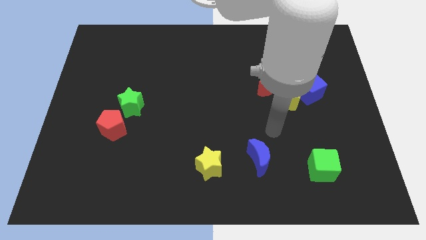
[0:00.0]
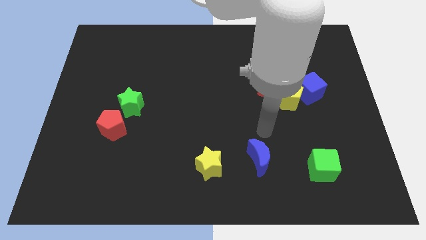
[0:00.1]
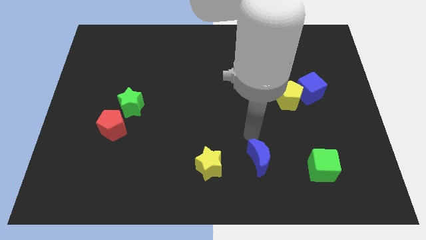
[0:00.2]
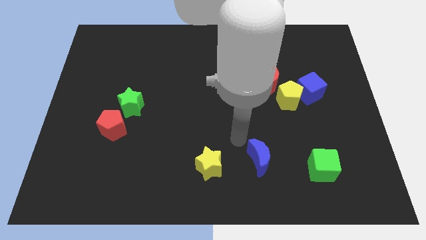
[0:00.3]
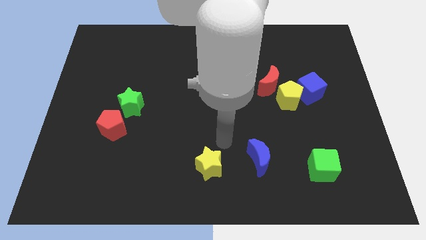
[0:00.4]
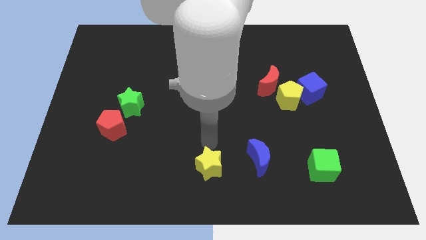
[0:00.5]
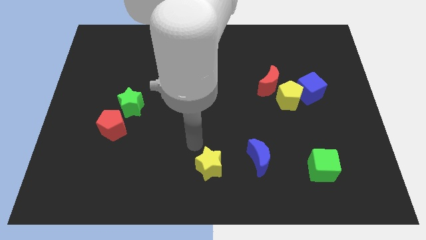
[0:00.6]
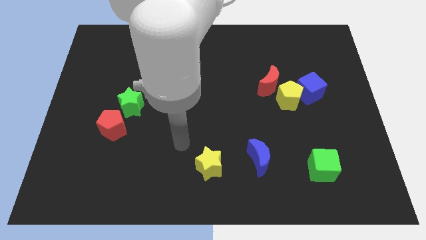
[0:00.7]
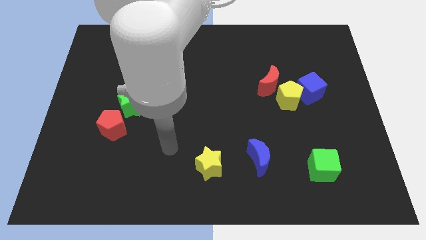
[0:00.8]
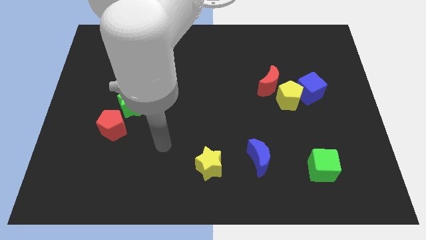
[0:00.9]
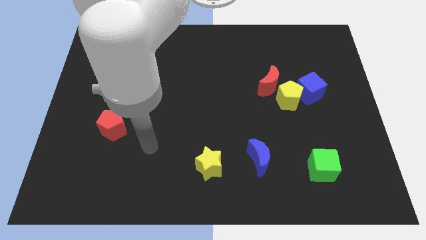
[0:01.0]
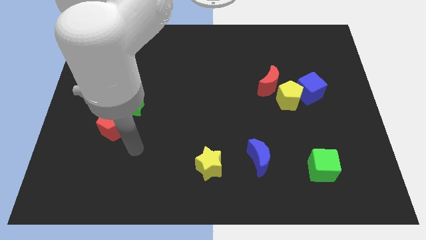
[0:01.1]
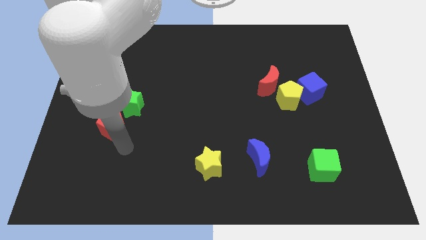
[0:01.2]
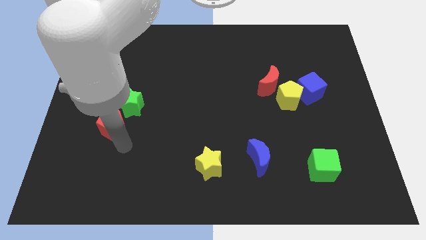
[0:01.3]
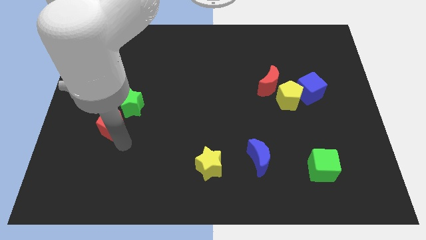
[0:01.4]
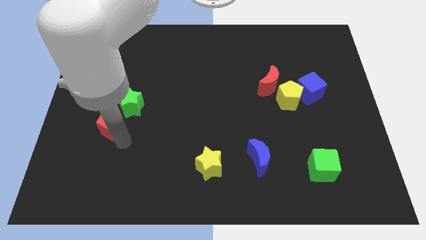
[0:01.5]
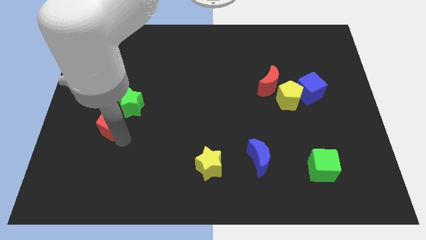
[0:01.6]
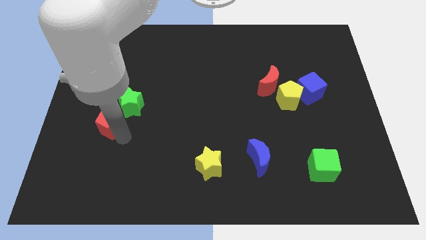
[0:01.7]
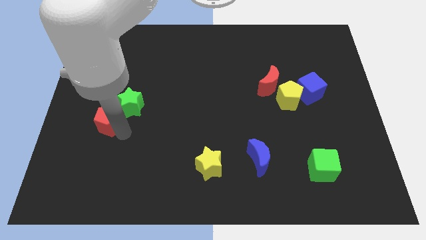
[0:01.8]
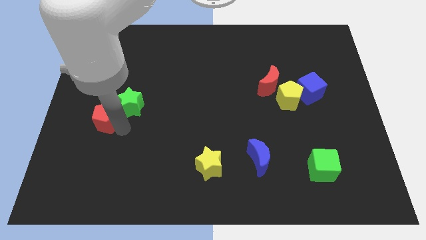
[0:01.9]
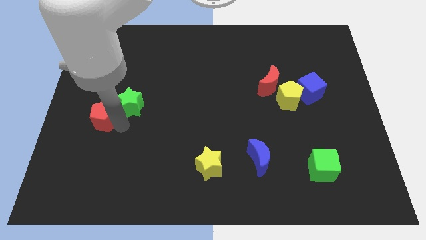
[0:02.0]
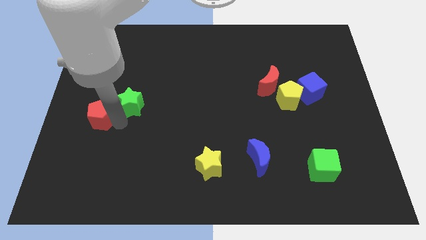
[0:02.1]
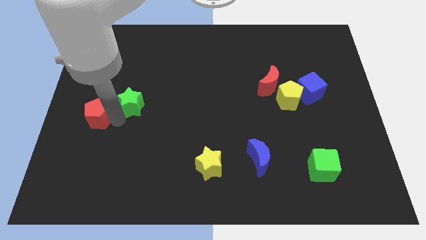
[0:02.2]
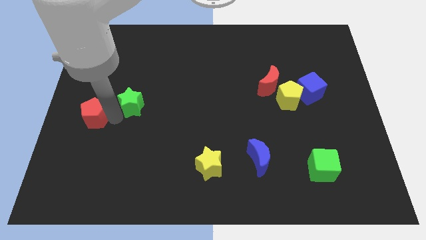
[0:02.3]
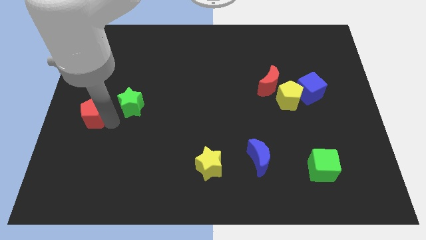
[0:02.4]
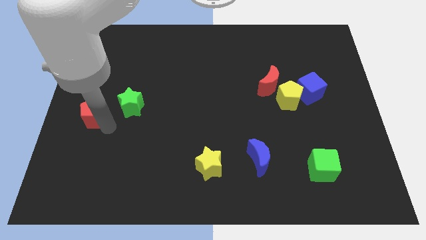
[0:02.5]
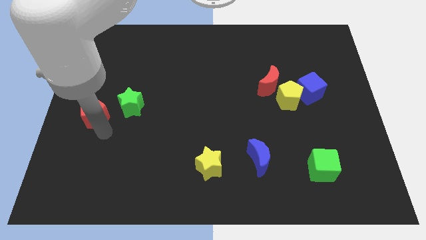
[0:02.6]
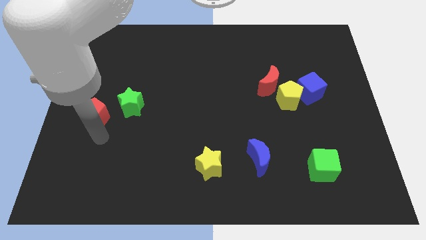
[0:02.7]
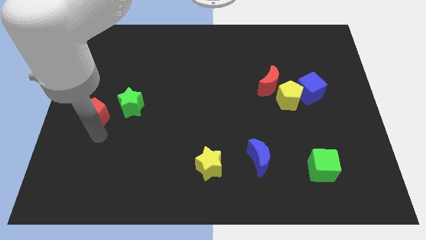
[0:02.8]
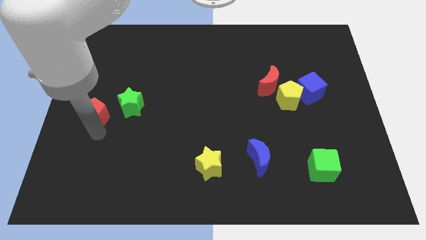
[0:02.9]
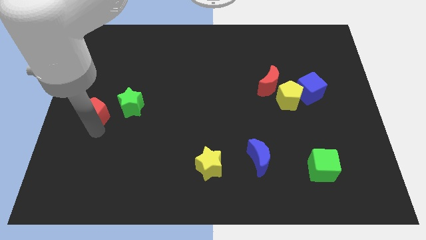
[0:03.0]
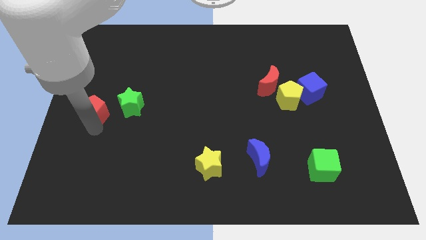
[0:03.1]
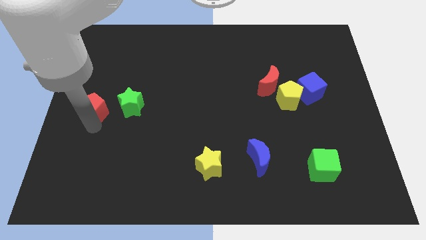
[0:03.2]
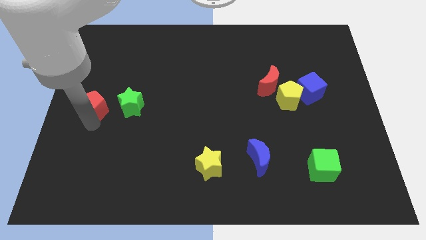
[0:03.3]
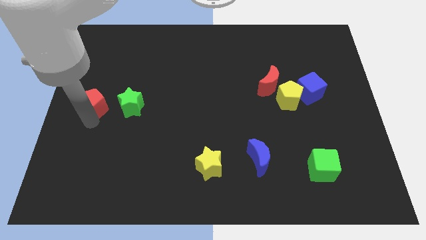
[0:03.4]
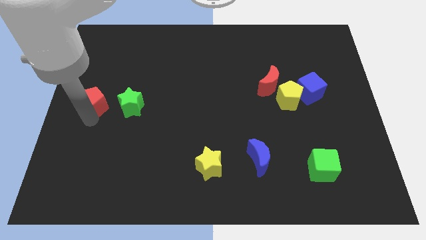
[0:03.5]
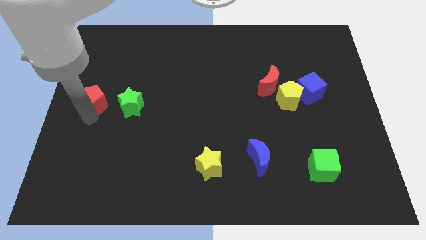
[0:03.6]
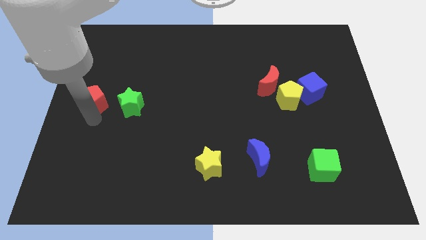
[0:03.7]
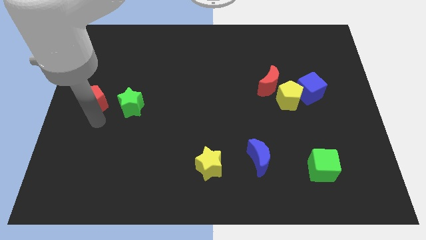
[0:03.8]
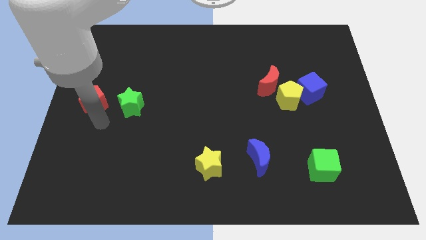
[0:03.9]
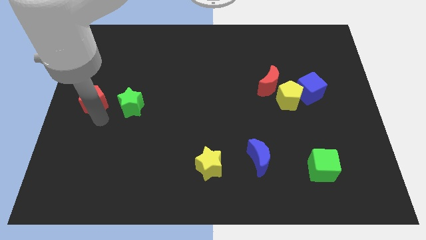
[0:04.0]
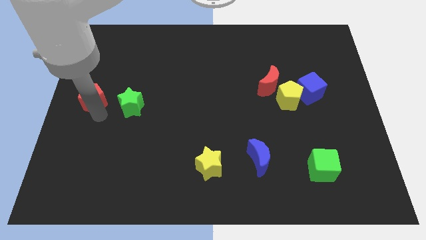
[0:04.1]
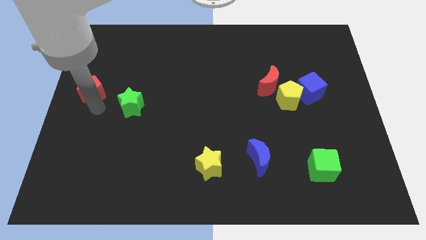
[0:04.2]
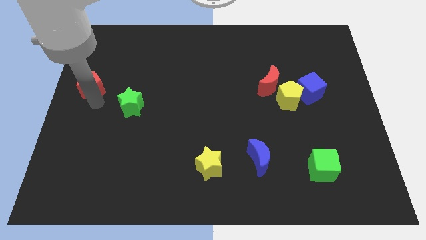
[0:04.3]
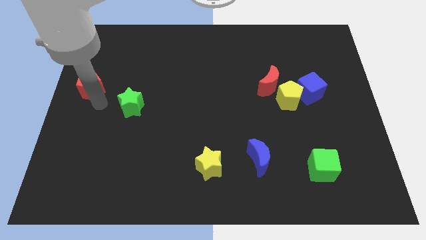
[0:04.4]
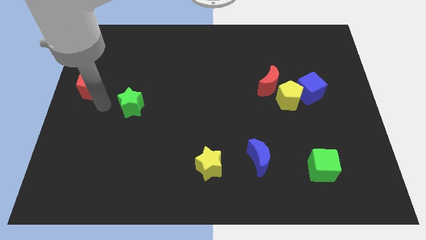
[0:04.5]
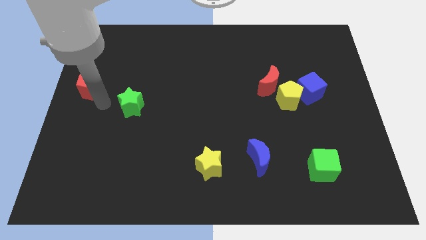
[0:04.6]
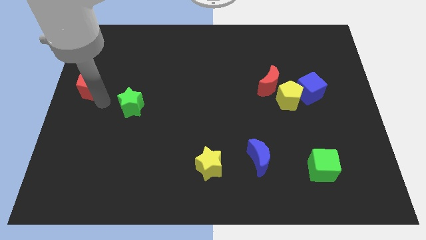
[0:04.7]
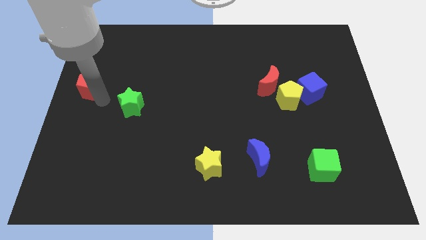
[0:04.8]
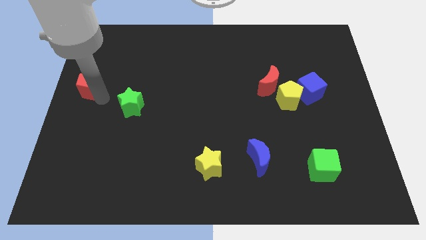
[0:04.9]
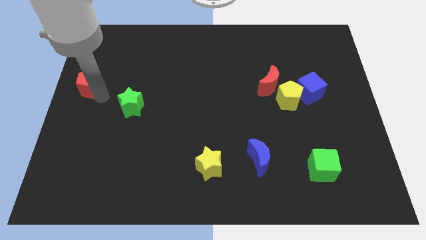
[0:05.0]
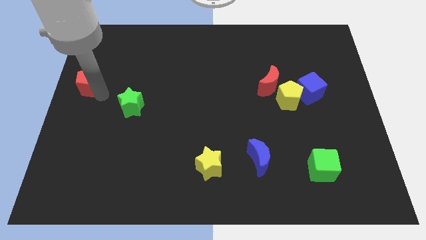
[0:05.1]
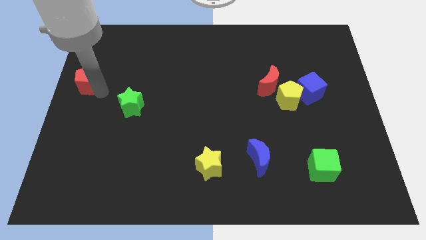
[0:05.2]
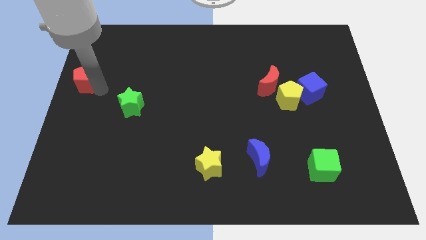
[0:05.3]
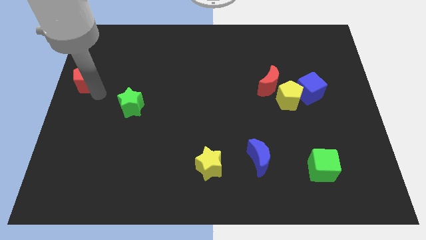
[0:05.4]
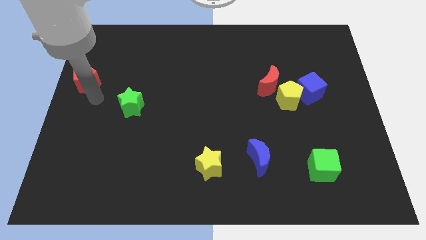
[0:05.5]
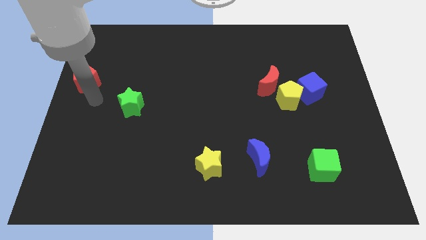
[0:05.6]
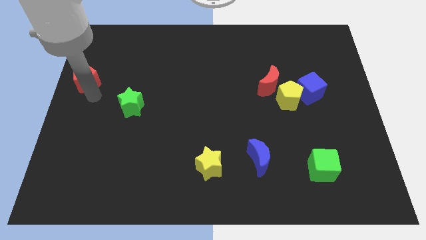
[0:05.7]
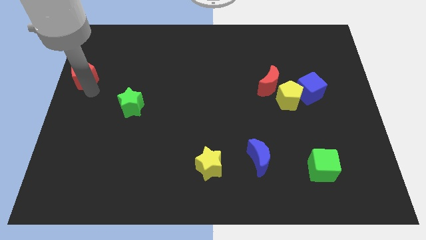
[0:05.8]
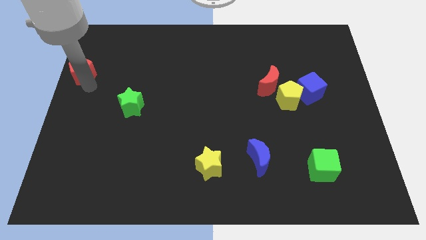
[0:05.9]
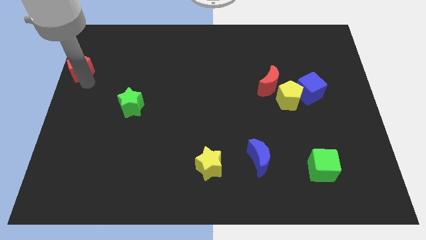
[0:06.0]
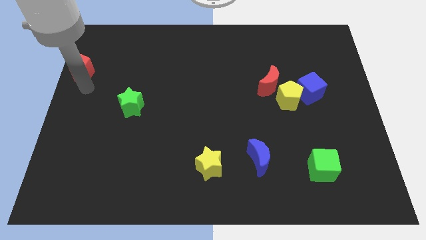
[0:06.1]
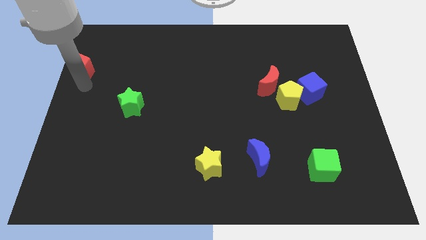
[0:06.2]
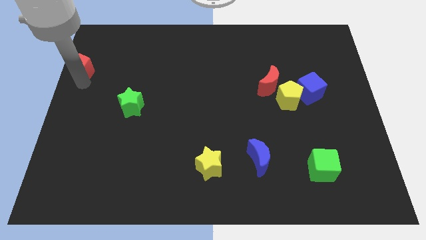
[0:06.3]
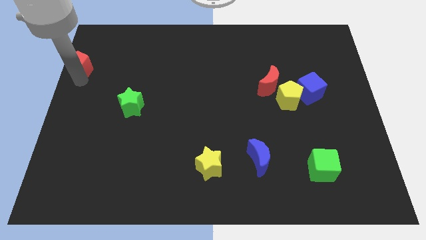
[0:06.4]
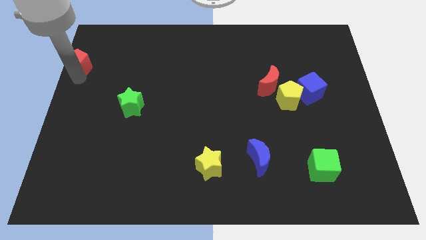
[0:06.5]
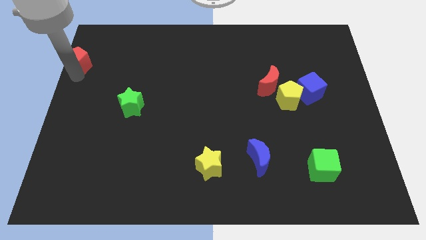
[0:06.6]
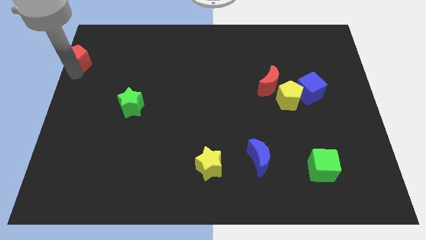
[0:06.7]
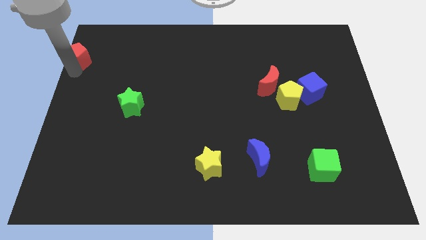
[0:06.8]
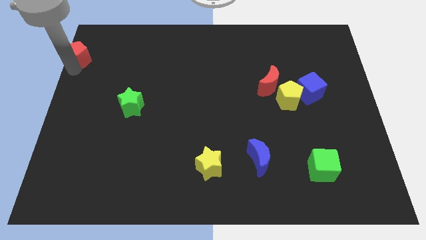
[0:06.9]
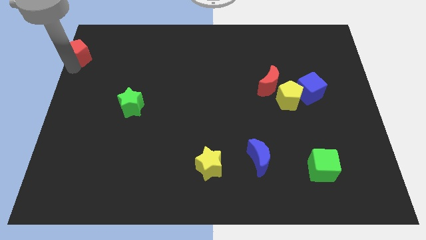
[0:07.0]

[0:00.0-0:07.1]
move the red pentagon to the top left of the board
